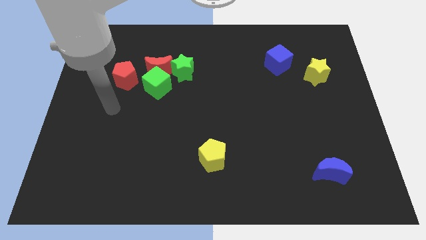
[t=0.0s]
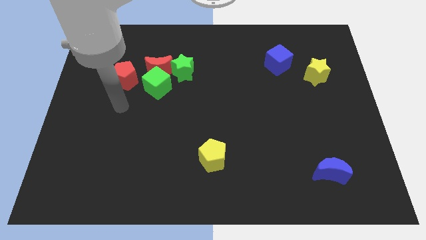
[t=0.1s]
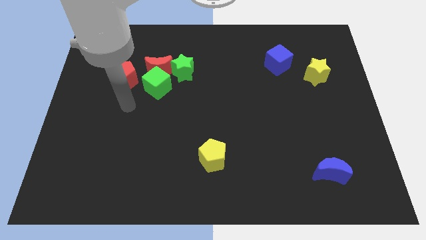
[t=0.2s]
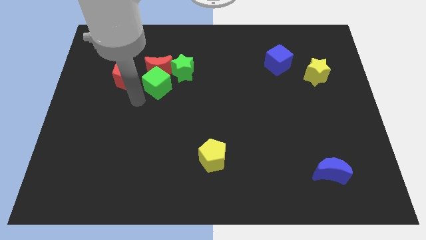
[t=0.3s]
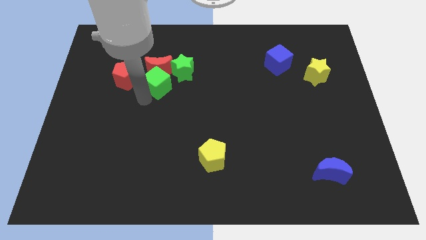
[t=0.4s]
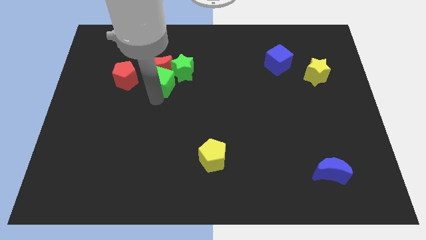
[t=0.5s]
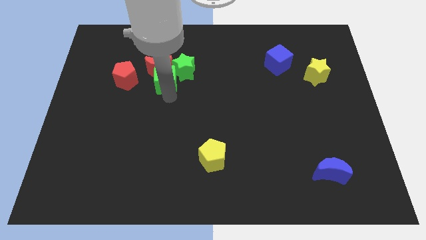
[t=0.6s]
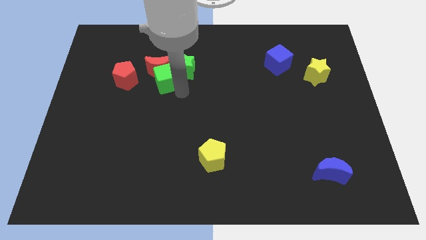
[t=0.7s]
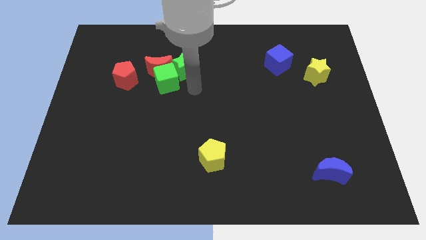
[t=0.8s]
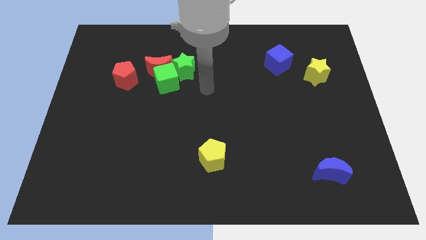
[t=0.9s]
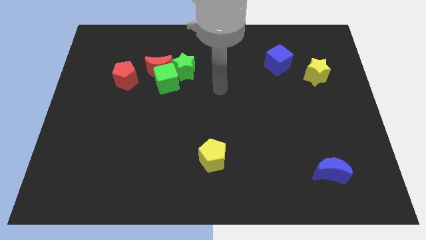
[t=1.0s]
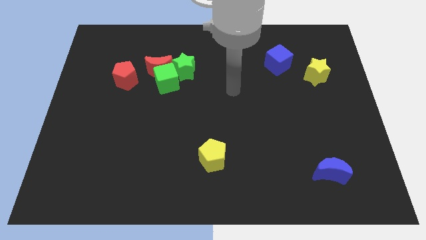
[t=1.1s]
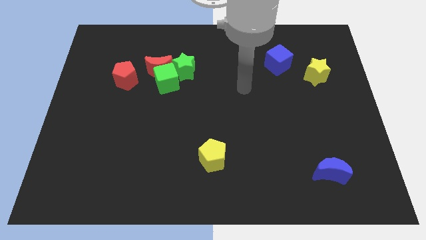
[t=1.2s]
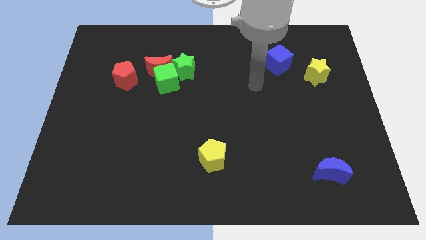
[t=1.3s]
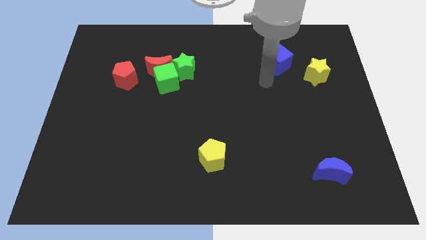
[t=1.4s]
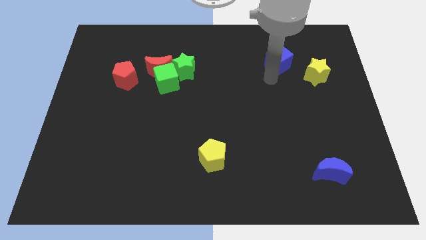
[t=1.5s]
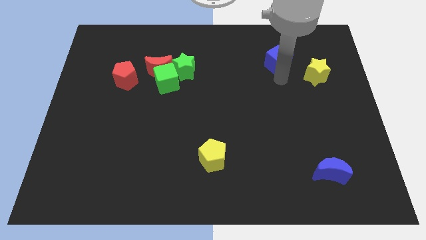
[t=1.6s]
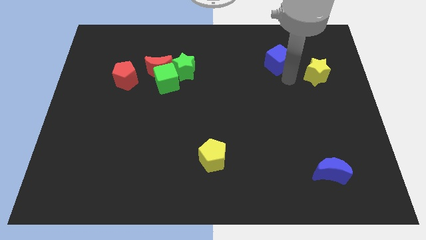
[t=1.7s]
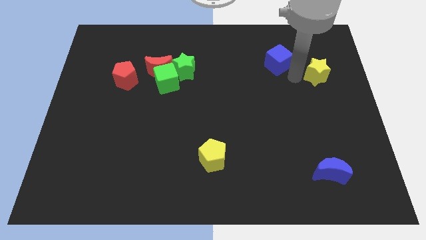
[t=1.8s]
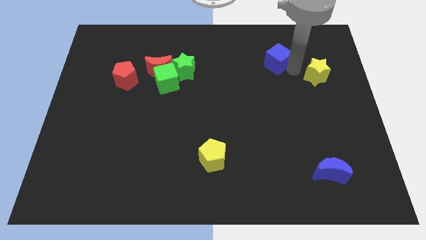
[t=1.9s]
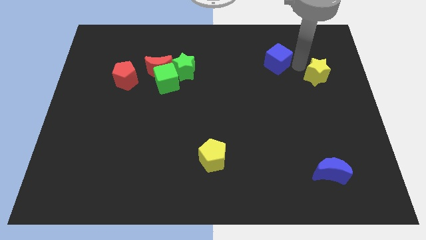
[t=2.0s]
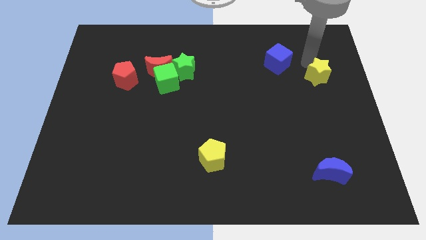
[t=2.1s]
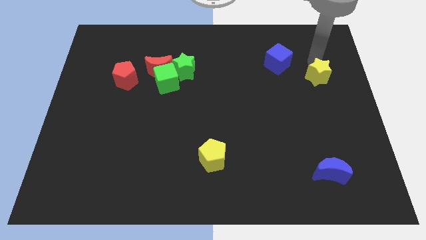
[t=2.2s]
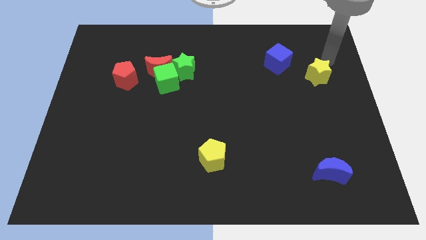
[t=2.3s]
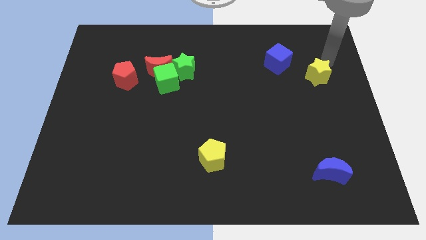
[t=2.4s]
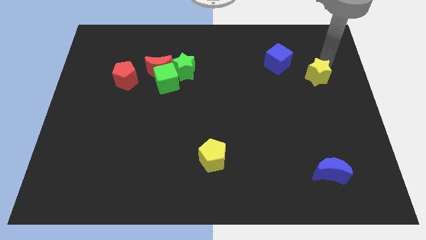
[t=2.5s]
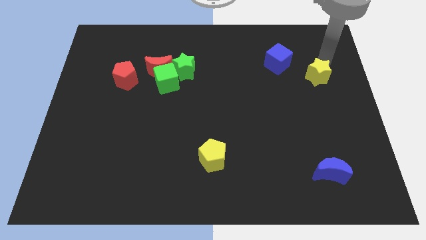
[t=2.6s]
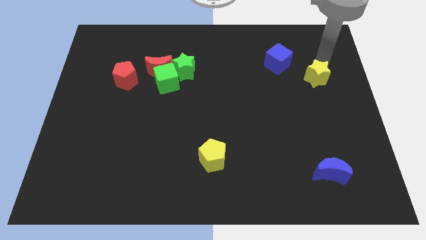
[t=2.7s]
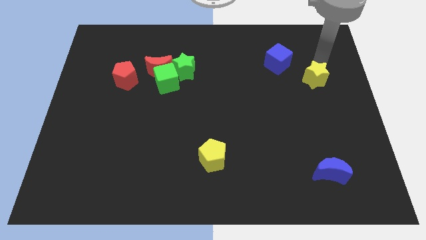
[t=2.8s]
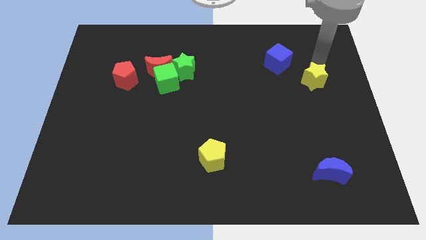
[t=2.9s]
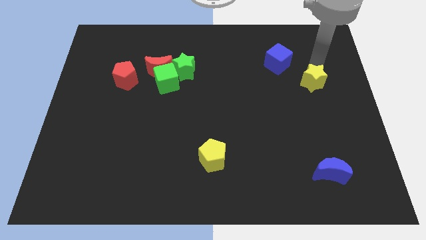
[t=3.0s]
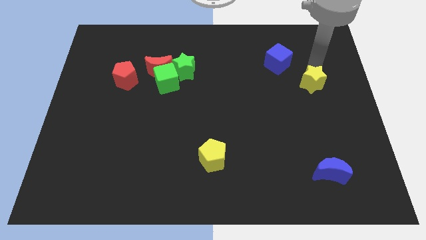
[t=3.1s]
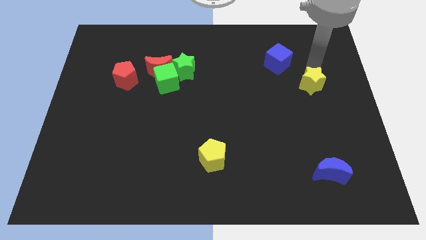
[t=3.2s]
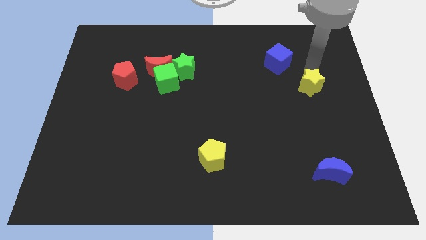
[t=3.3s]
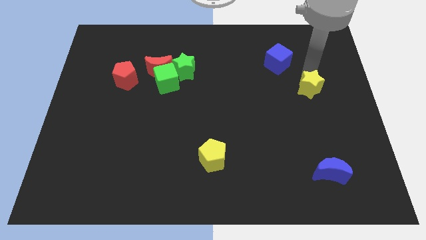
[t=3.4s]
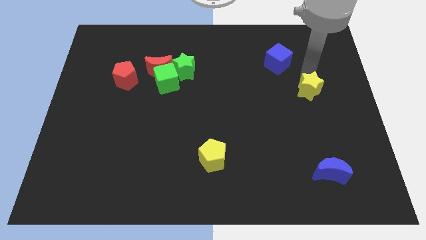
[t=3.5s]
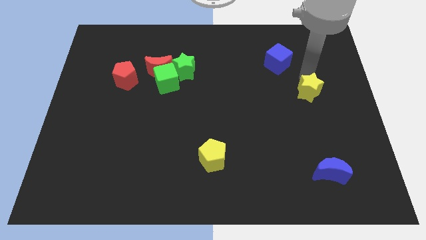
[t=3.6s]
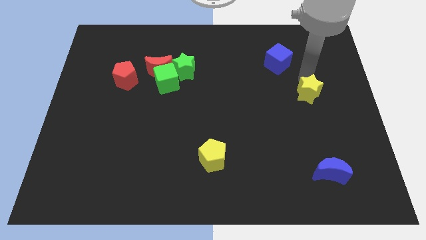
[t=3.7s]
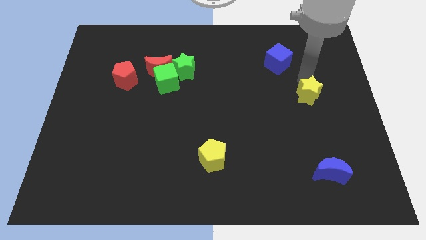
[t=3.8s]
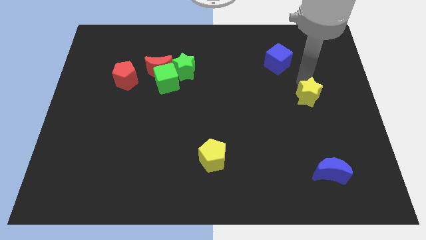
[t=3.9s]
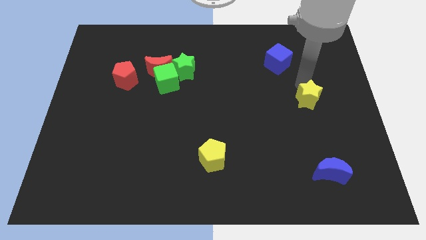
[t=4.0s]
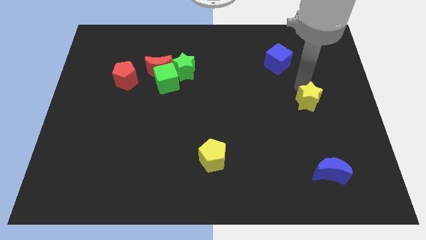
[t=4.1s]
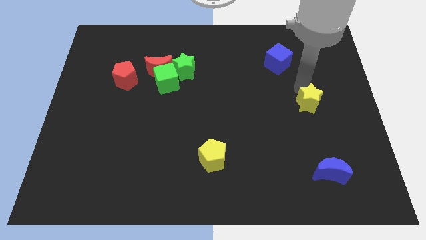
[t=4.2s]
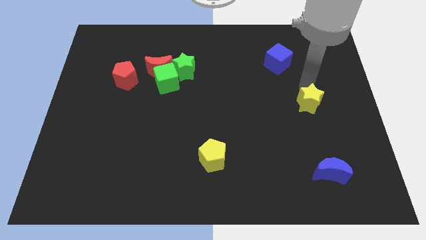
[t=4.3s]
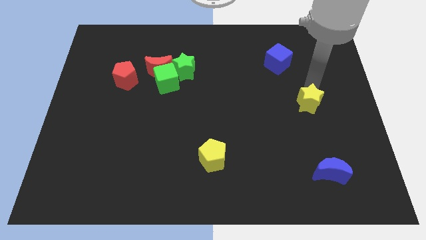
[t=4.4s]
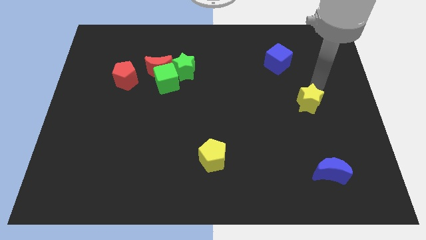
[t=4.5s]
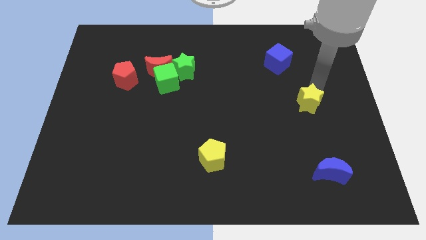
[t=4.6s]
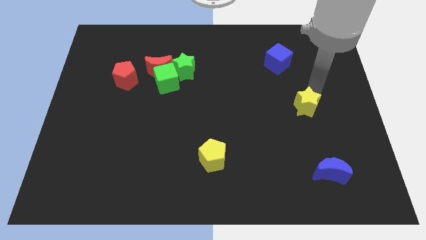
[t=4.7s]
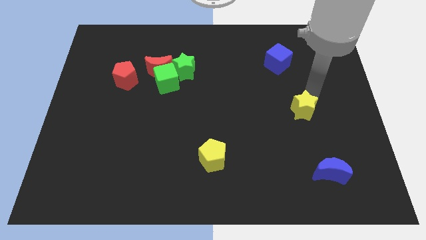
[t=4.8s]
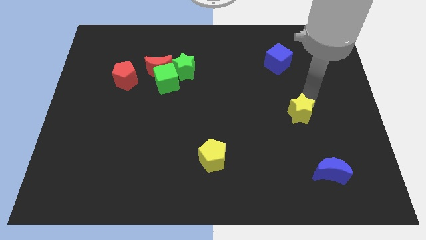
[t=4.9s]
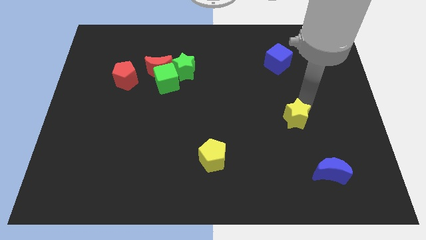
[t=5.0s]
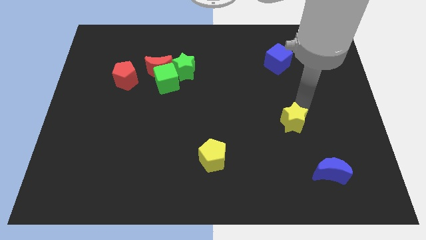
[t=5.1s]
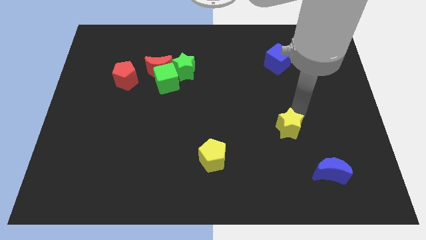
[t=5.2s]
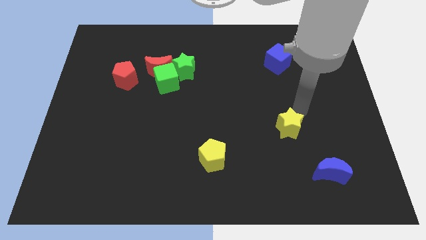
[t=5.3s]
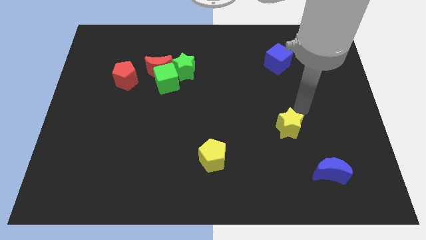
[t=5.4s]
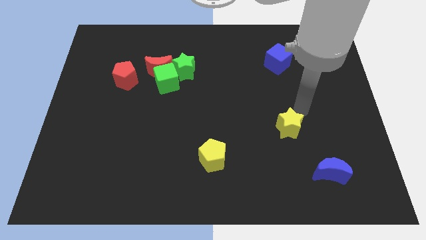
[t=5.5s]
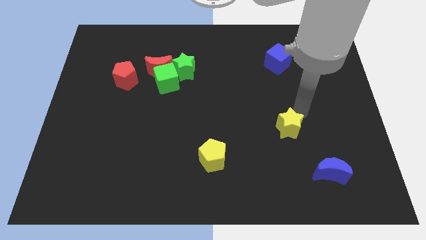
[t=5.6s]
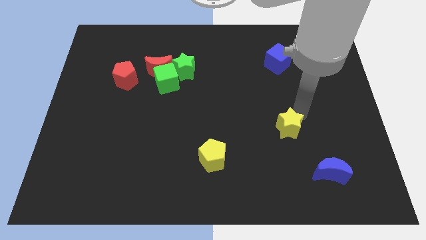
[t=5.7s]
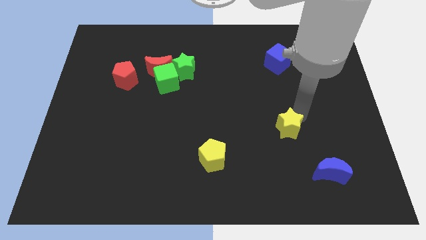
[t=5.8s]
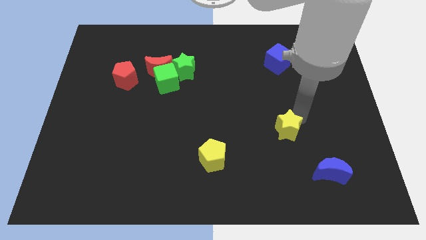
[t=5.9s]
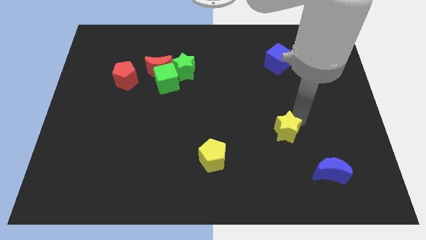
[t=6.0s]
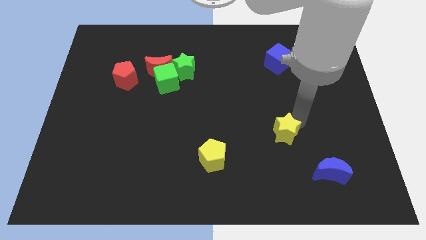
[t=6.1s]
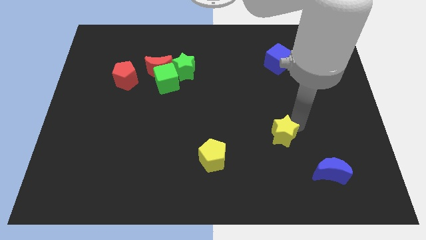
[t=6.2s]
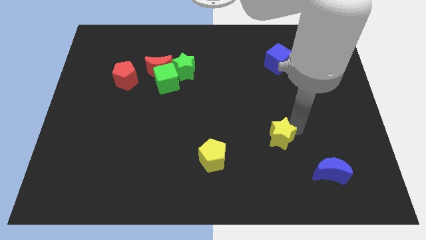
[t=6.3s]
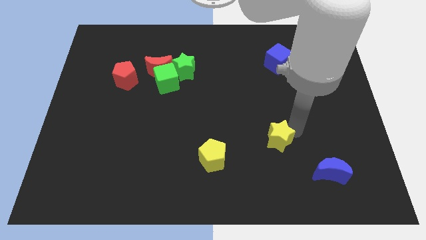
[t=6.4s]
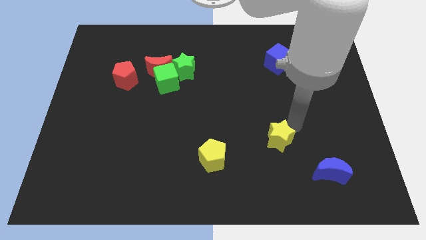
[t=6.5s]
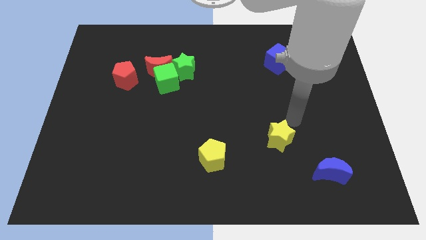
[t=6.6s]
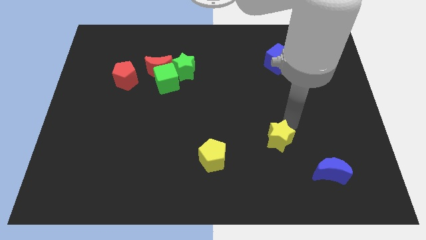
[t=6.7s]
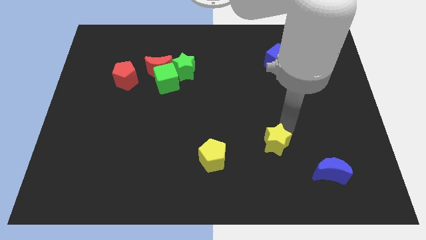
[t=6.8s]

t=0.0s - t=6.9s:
put the yellow star to the right of the yellow pentagon

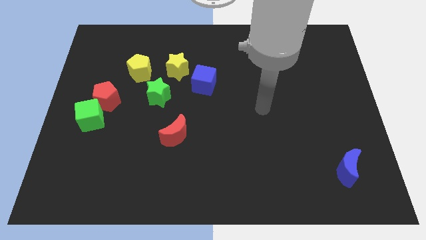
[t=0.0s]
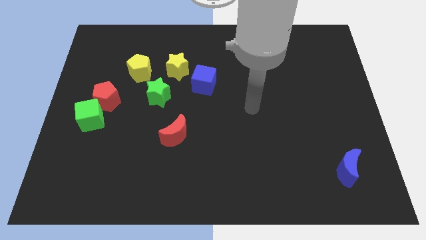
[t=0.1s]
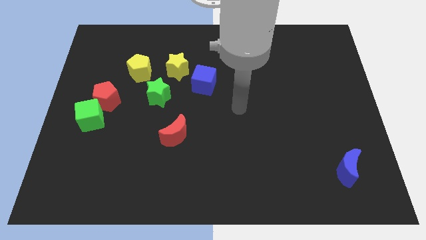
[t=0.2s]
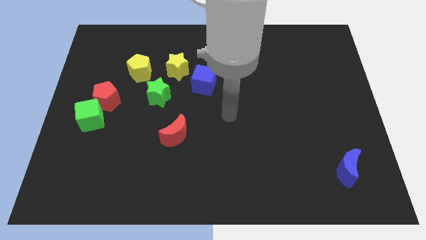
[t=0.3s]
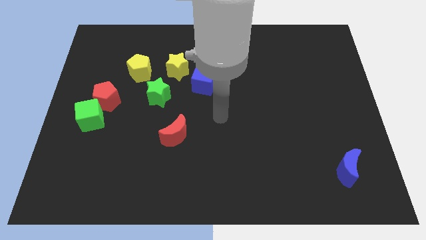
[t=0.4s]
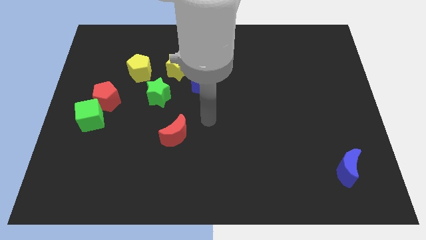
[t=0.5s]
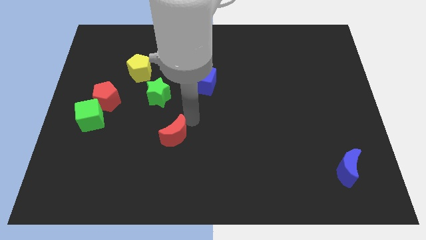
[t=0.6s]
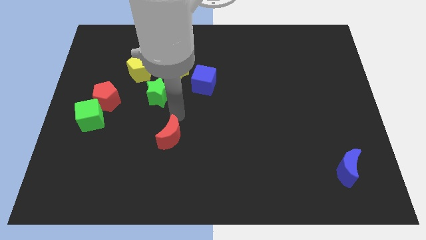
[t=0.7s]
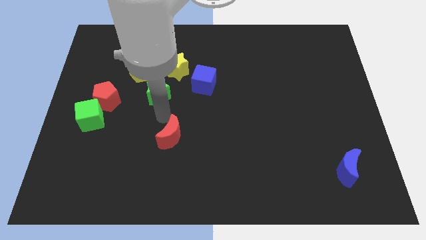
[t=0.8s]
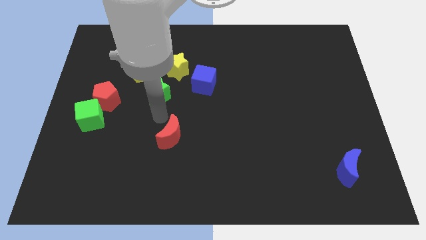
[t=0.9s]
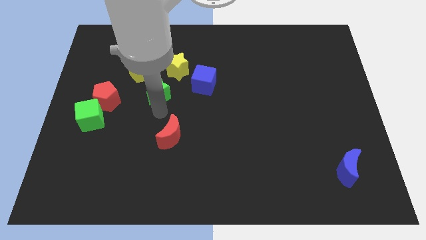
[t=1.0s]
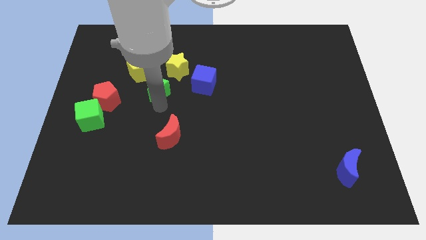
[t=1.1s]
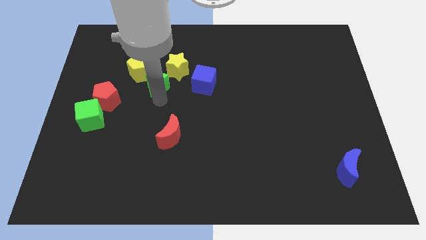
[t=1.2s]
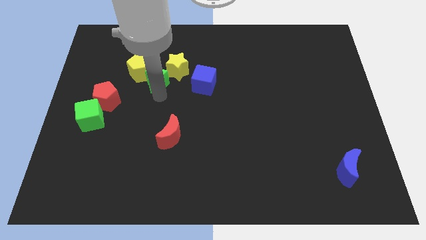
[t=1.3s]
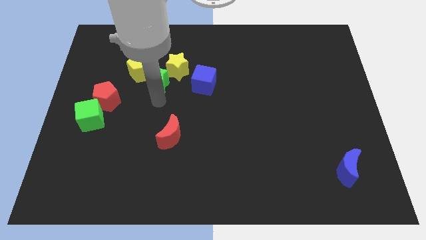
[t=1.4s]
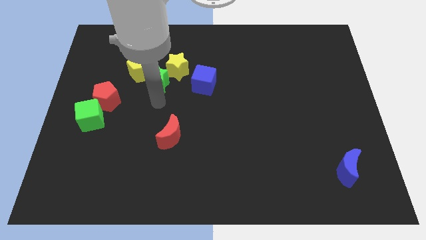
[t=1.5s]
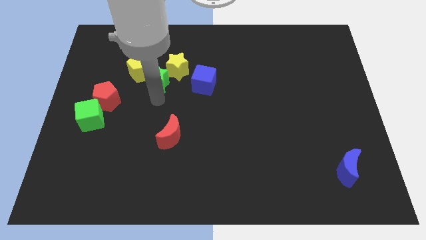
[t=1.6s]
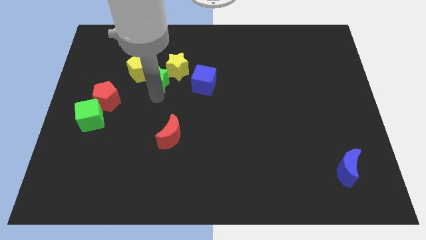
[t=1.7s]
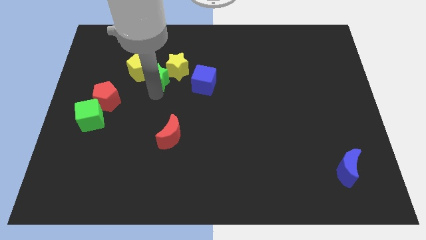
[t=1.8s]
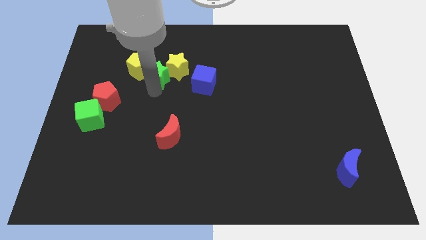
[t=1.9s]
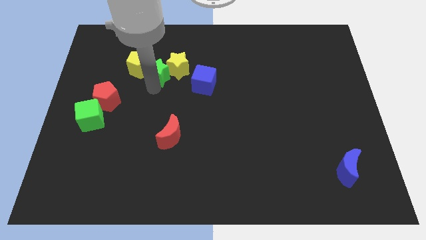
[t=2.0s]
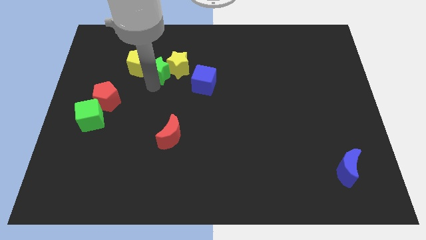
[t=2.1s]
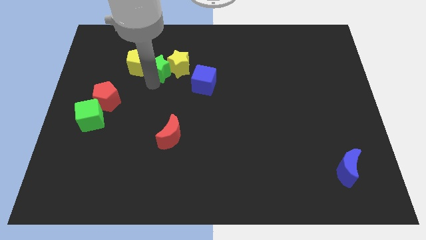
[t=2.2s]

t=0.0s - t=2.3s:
push the green star to the top left side of the yellow star
